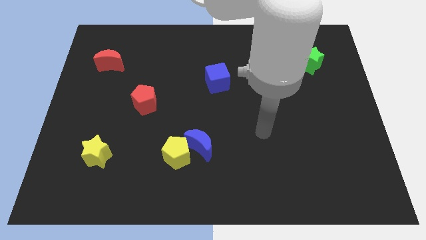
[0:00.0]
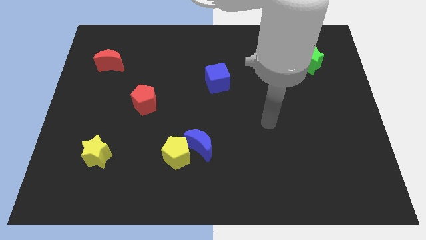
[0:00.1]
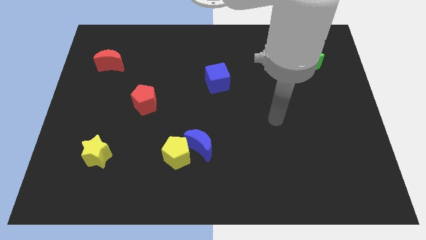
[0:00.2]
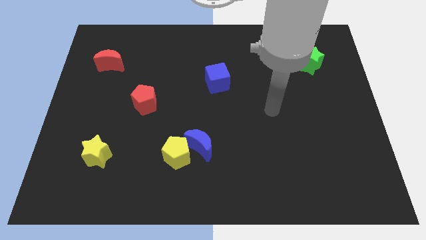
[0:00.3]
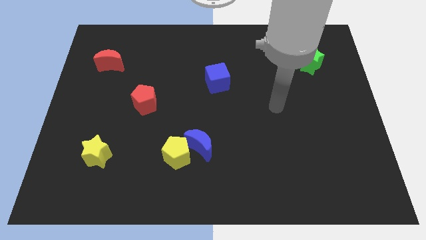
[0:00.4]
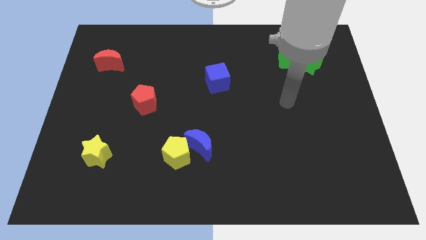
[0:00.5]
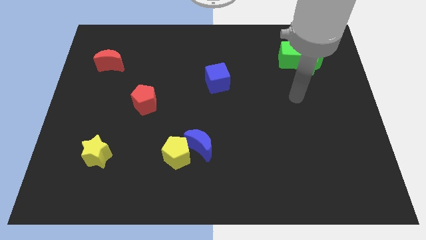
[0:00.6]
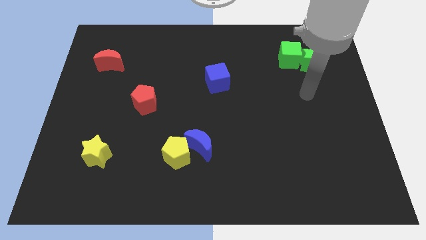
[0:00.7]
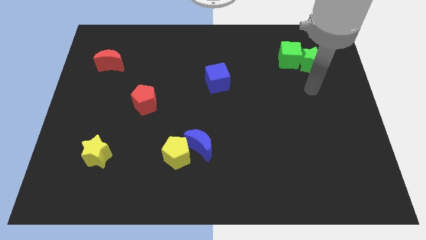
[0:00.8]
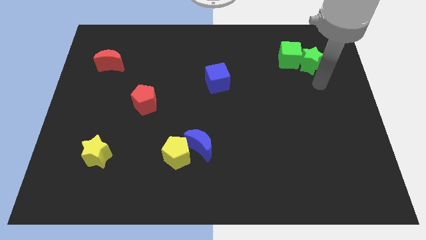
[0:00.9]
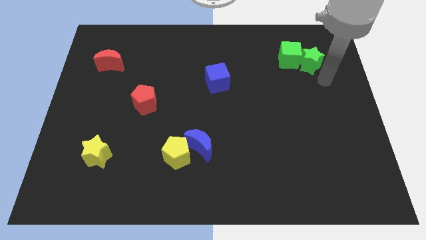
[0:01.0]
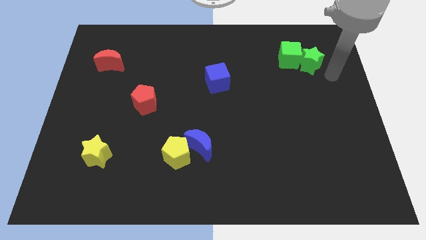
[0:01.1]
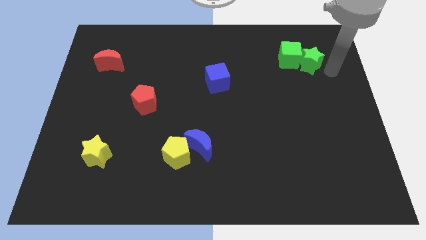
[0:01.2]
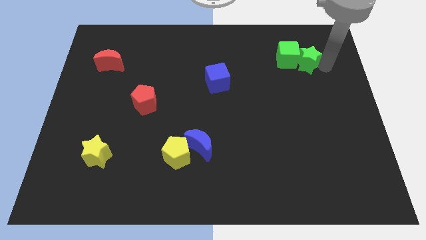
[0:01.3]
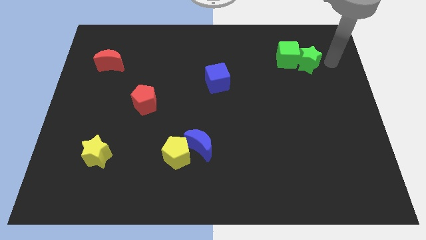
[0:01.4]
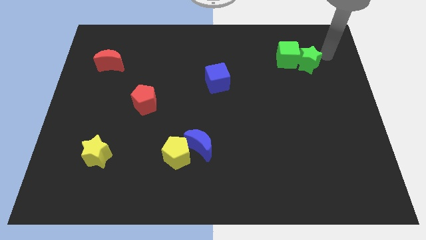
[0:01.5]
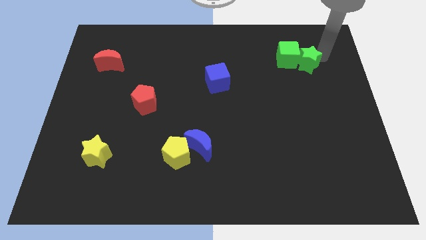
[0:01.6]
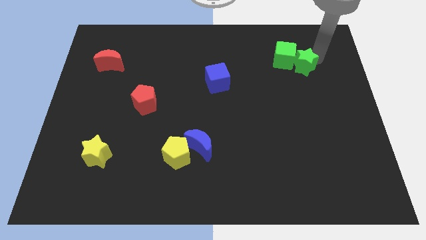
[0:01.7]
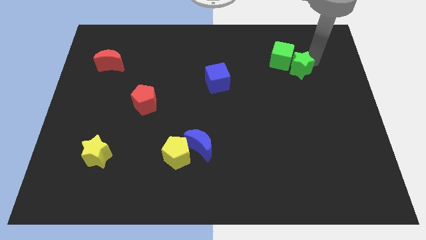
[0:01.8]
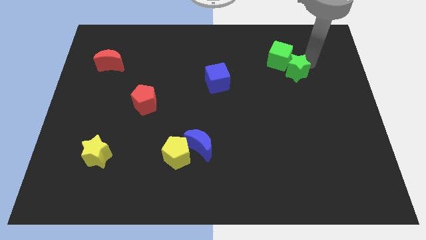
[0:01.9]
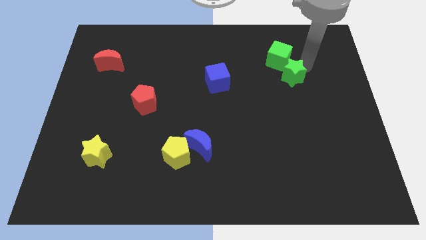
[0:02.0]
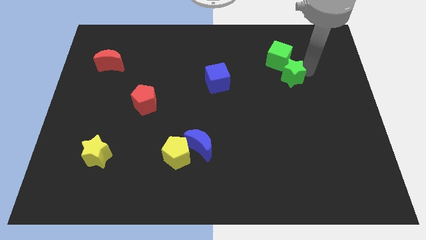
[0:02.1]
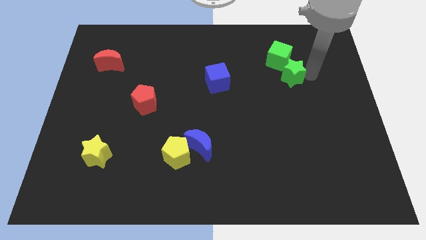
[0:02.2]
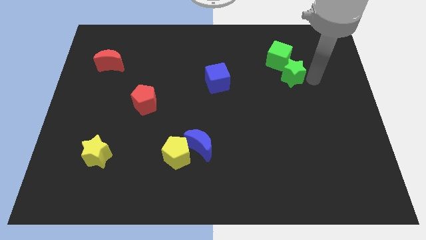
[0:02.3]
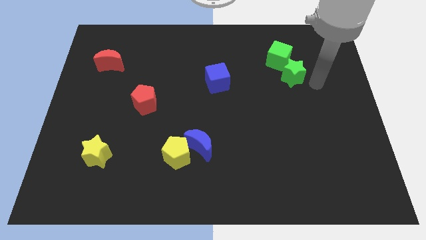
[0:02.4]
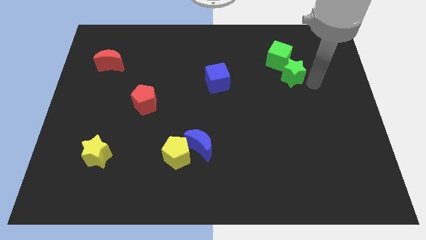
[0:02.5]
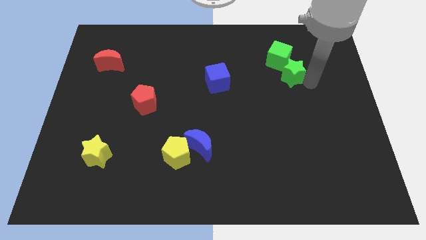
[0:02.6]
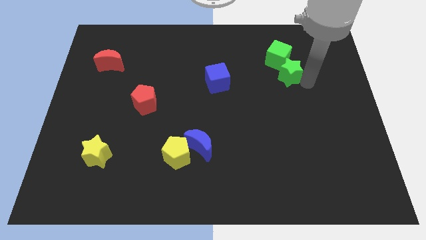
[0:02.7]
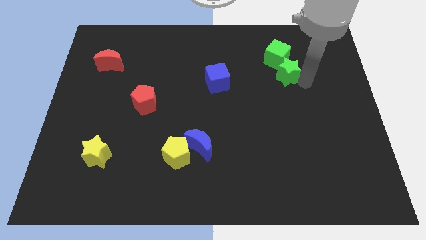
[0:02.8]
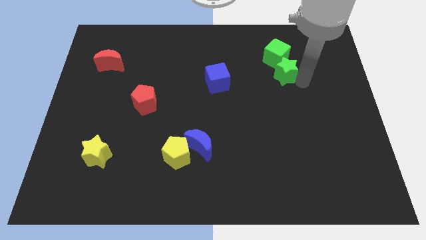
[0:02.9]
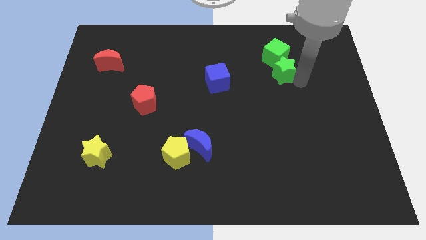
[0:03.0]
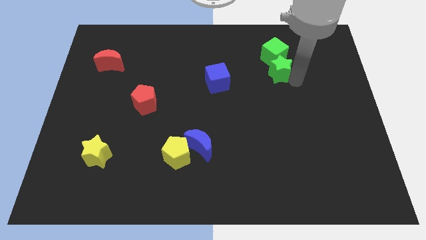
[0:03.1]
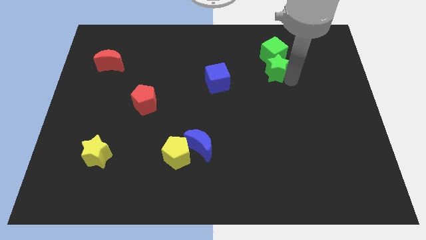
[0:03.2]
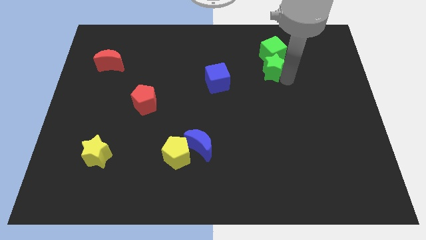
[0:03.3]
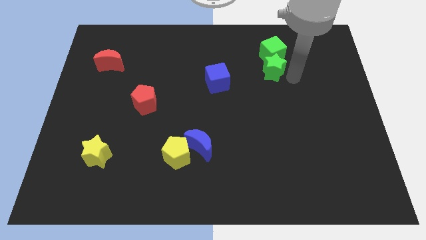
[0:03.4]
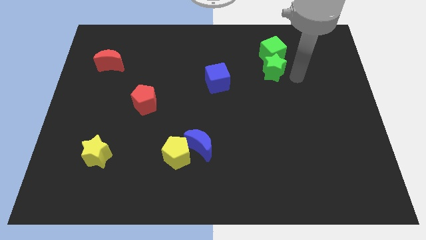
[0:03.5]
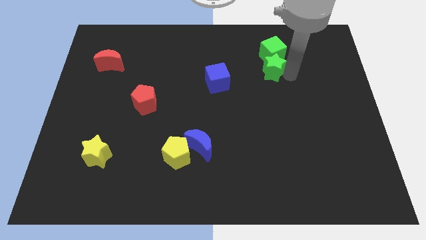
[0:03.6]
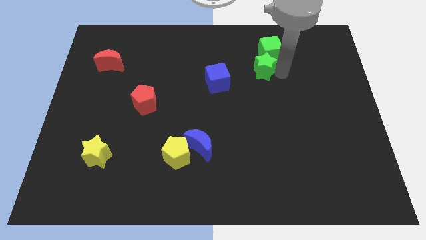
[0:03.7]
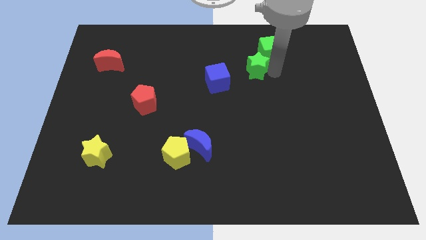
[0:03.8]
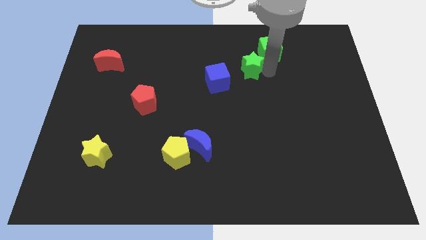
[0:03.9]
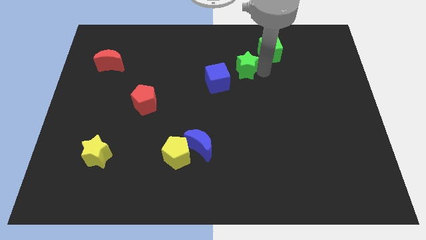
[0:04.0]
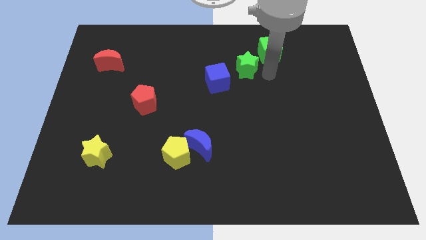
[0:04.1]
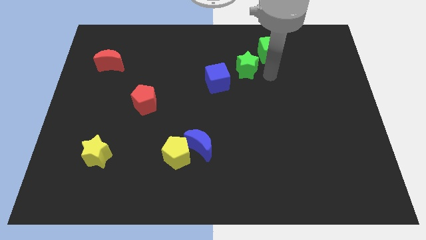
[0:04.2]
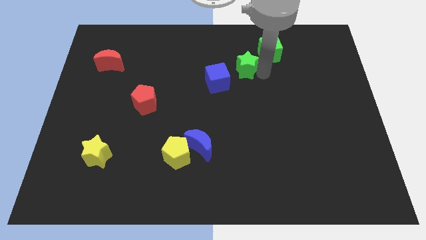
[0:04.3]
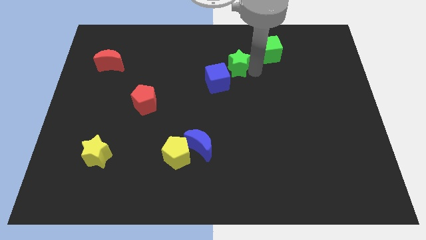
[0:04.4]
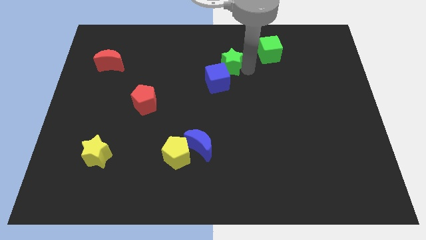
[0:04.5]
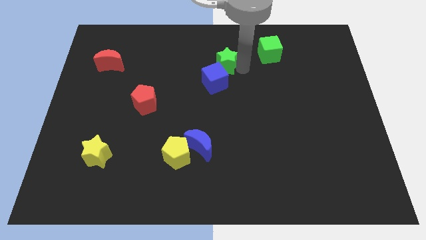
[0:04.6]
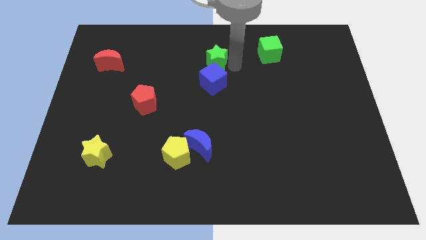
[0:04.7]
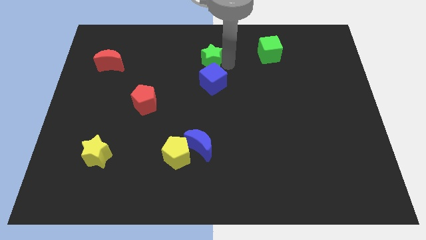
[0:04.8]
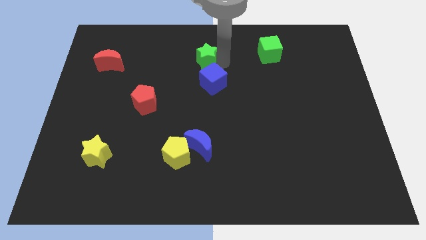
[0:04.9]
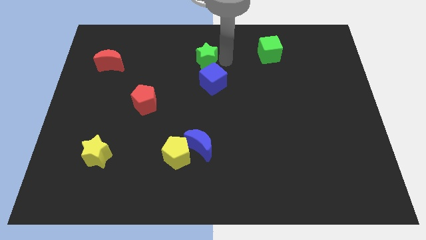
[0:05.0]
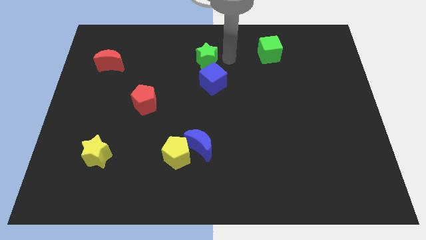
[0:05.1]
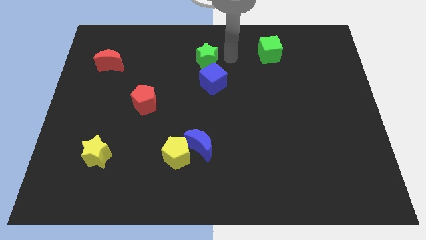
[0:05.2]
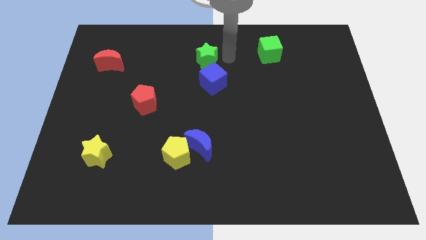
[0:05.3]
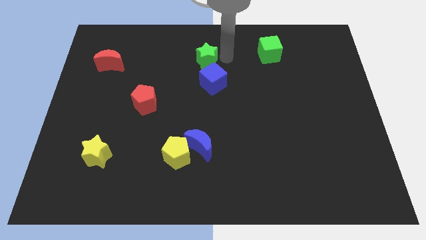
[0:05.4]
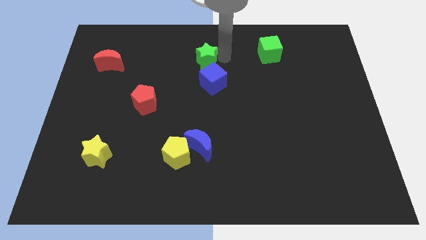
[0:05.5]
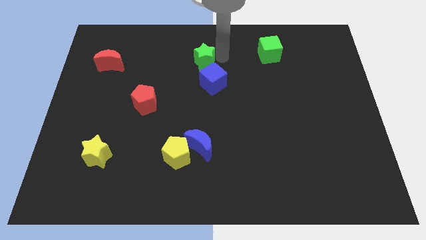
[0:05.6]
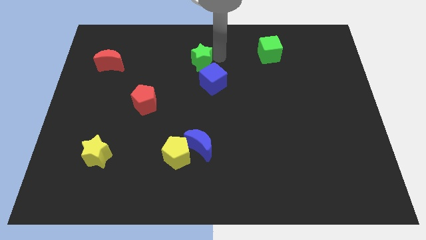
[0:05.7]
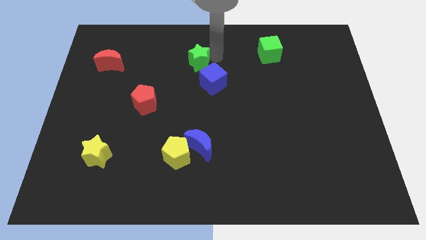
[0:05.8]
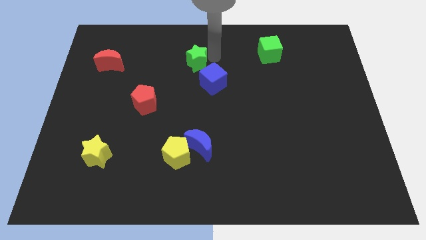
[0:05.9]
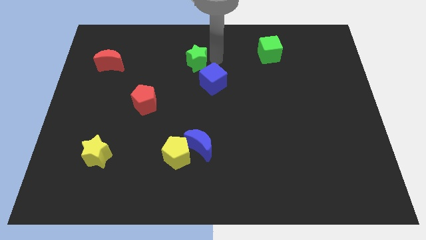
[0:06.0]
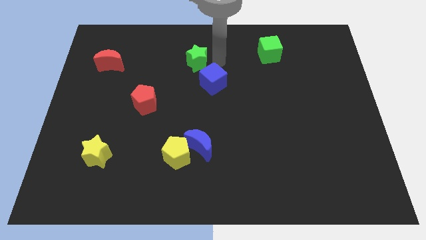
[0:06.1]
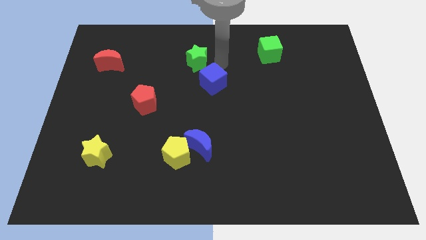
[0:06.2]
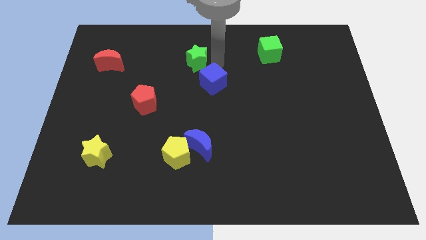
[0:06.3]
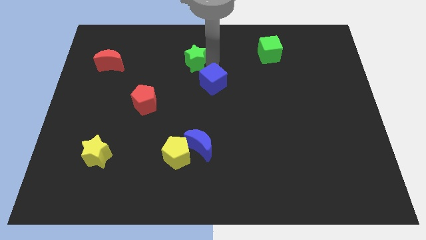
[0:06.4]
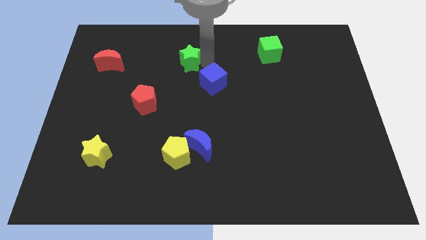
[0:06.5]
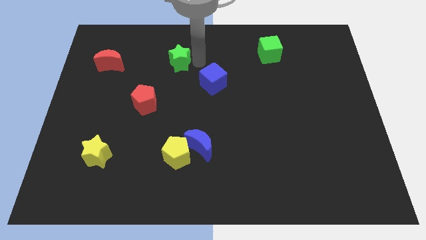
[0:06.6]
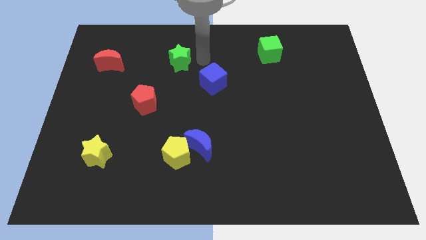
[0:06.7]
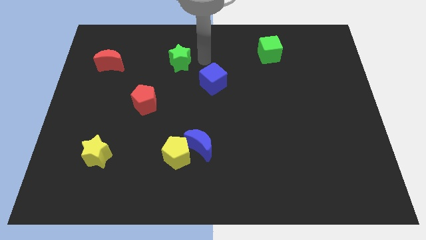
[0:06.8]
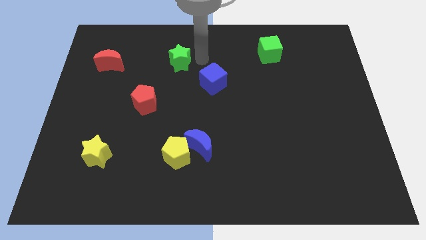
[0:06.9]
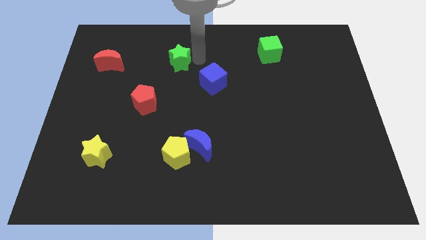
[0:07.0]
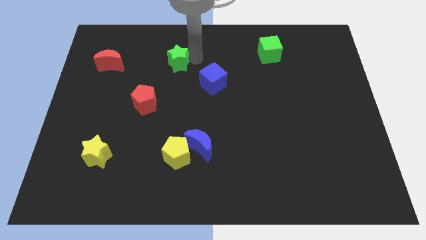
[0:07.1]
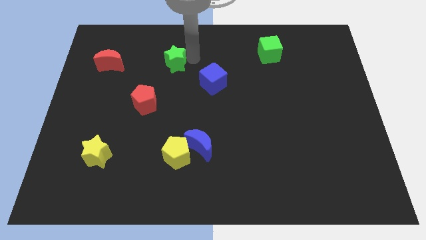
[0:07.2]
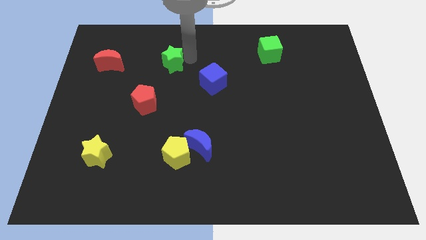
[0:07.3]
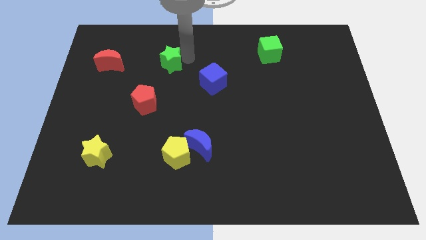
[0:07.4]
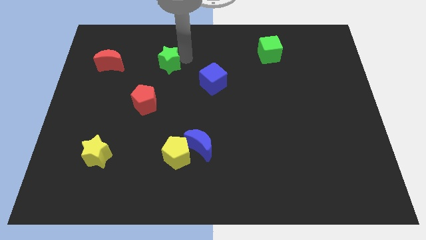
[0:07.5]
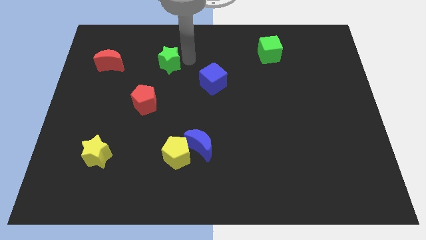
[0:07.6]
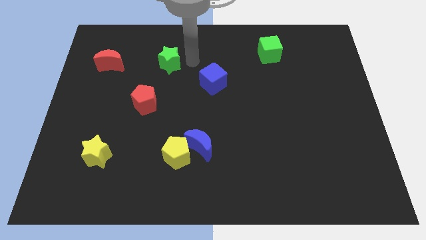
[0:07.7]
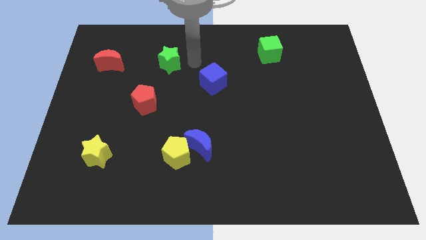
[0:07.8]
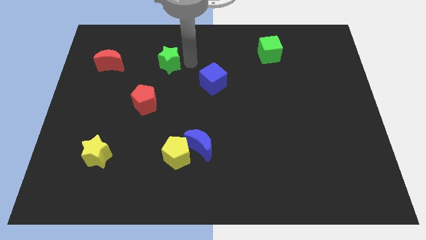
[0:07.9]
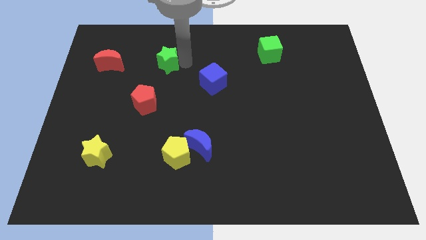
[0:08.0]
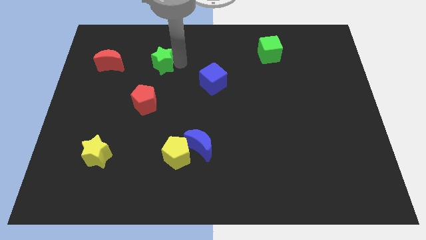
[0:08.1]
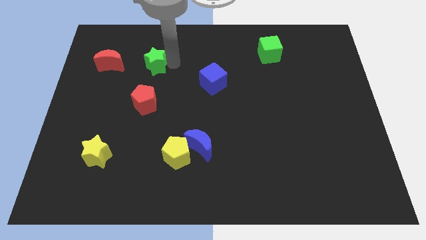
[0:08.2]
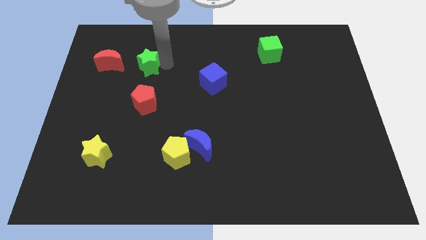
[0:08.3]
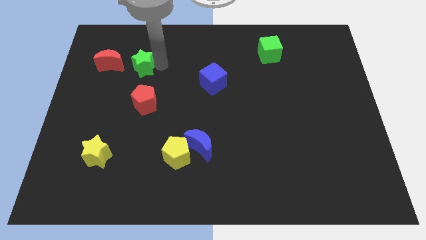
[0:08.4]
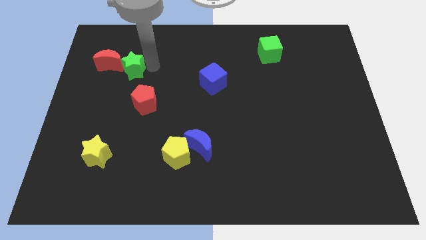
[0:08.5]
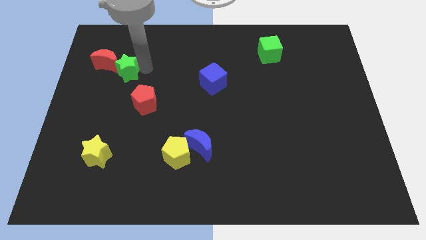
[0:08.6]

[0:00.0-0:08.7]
slide the green star towards the red moon
